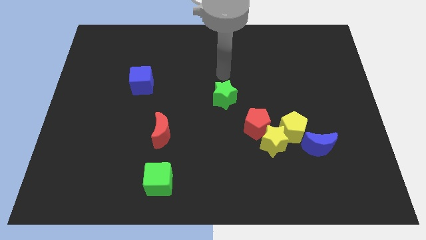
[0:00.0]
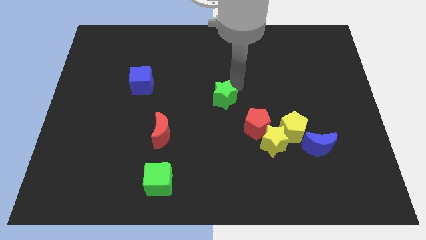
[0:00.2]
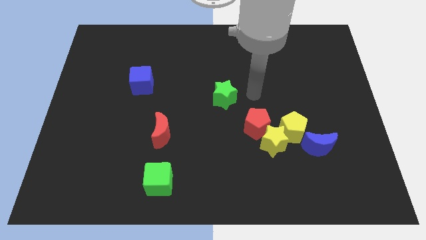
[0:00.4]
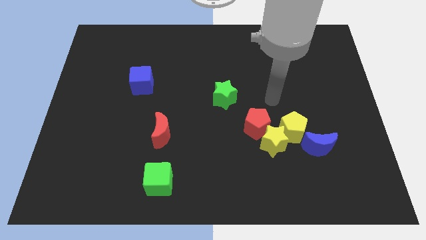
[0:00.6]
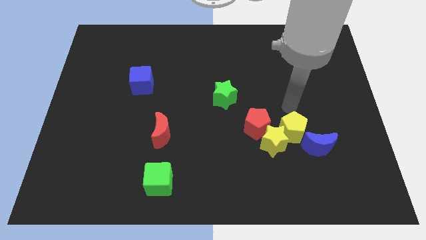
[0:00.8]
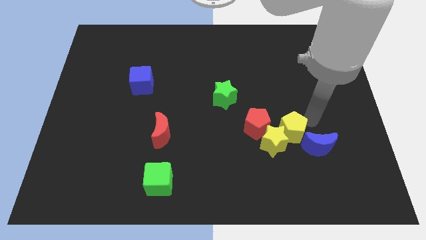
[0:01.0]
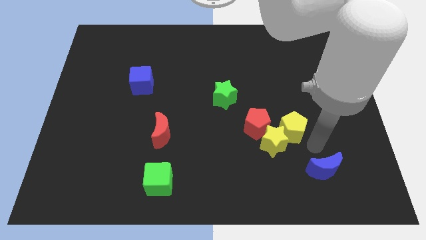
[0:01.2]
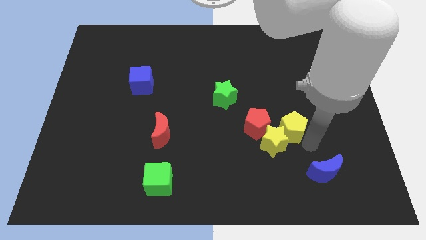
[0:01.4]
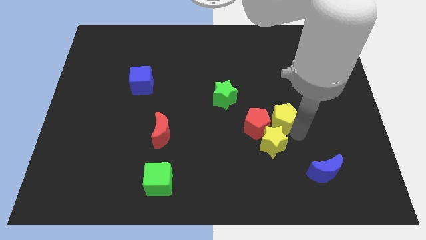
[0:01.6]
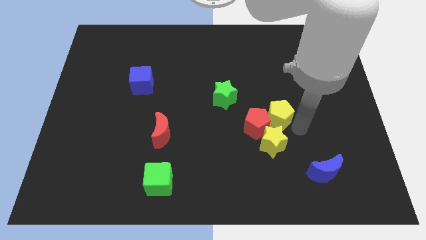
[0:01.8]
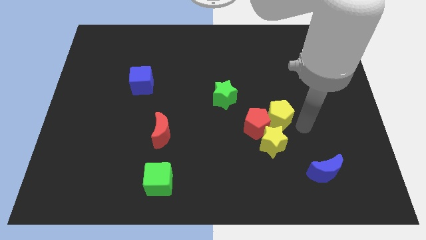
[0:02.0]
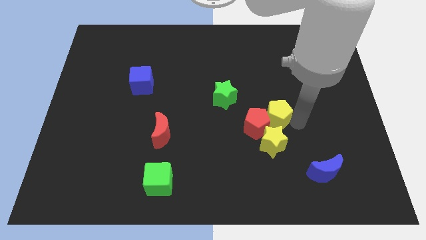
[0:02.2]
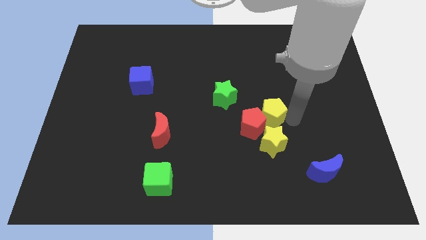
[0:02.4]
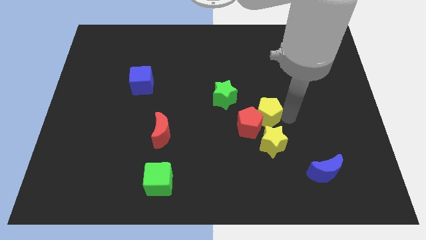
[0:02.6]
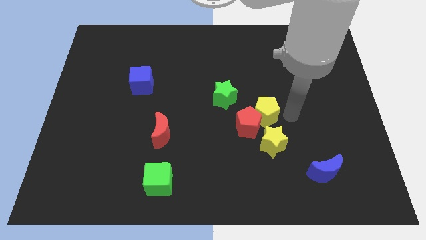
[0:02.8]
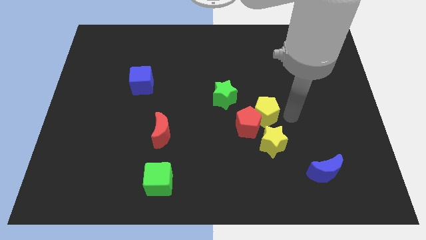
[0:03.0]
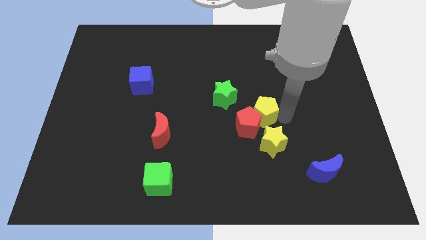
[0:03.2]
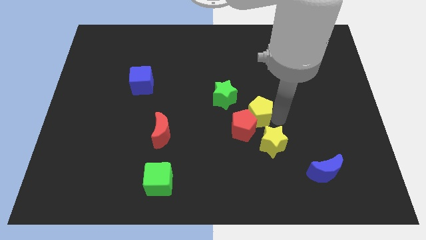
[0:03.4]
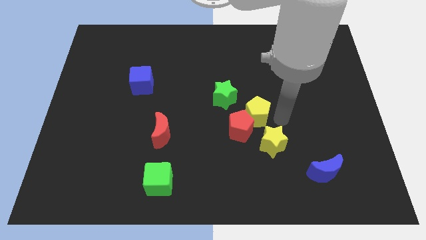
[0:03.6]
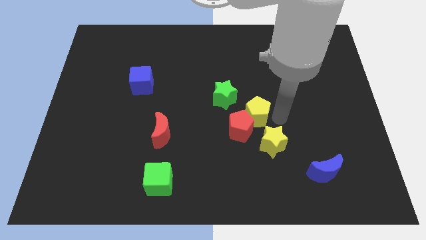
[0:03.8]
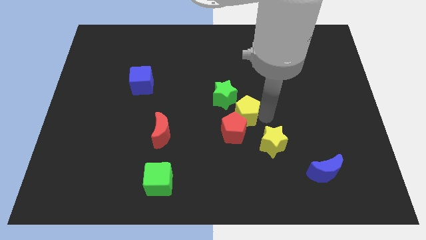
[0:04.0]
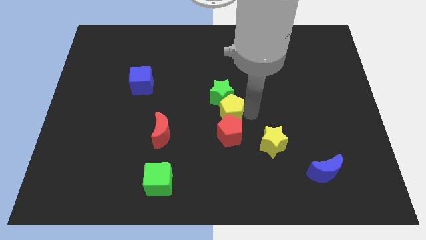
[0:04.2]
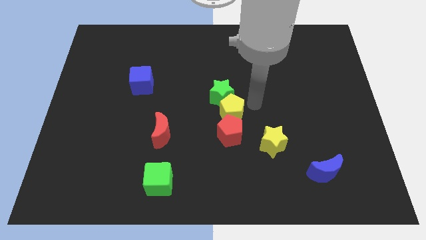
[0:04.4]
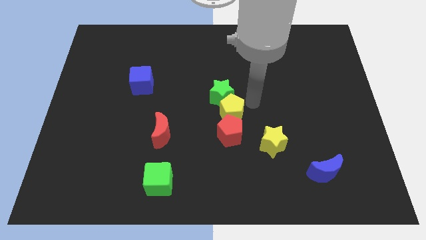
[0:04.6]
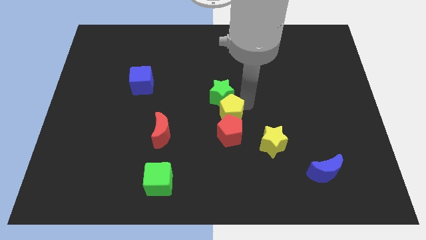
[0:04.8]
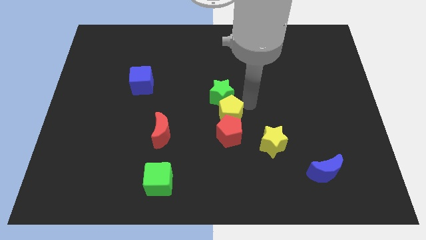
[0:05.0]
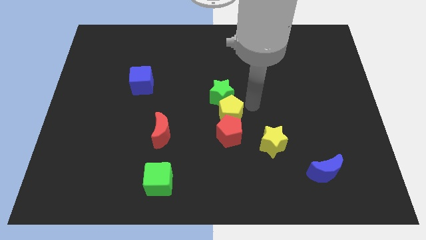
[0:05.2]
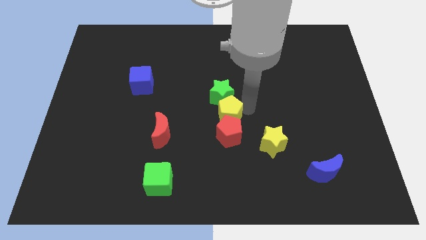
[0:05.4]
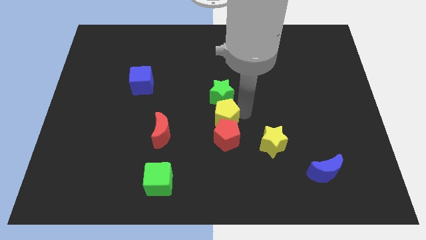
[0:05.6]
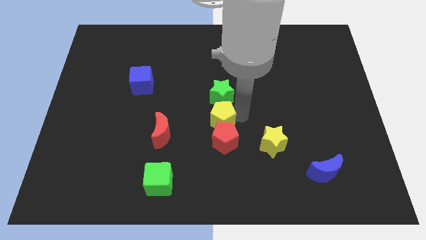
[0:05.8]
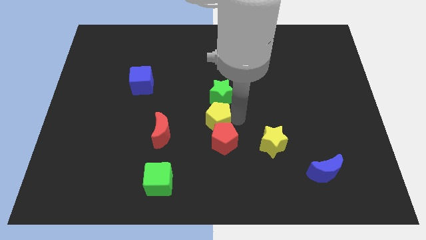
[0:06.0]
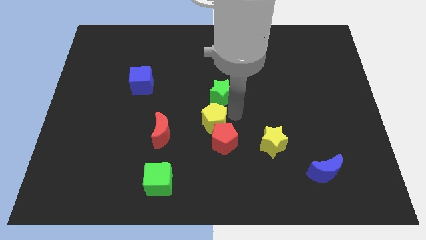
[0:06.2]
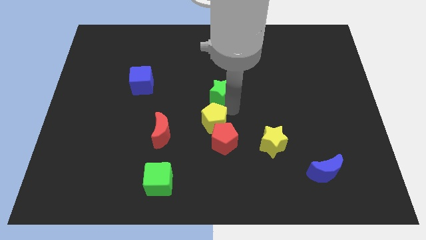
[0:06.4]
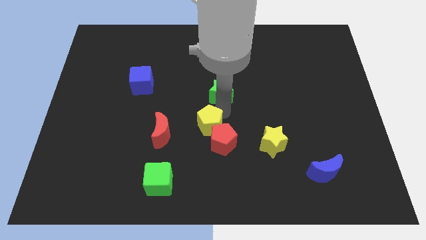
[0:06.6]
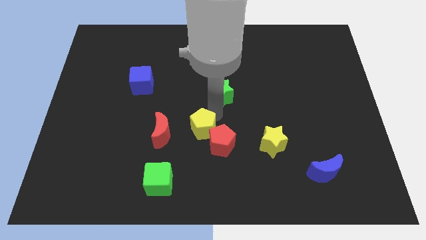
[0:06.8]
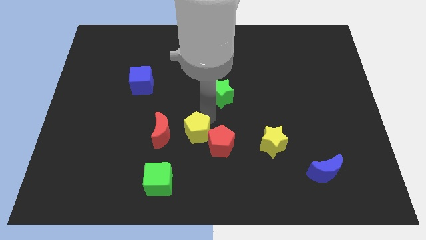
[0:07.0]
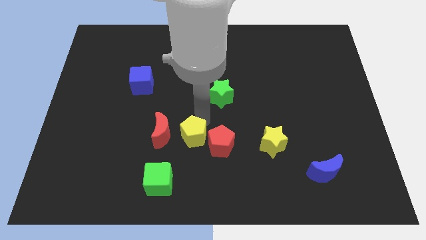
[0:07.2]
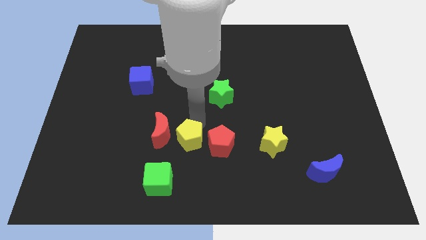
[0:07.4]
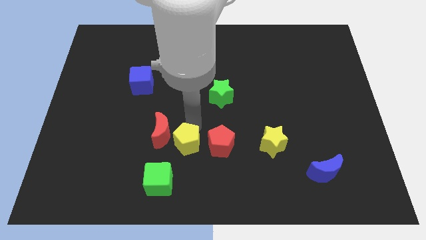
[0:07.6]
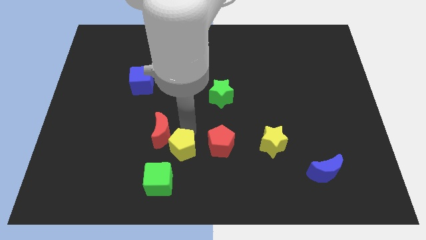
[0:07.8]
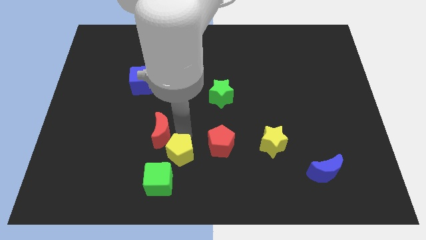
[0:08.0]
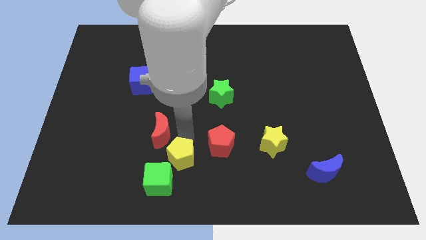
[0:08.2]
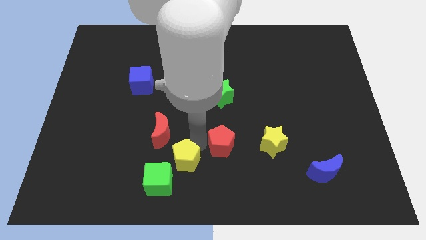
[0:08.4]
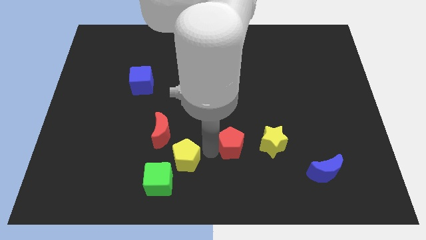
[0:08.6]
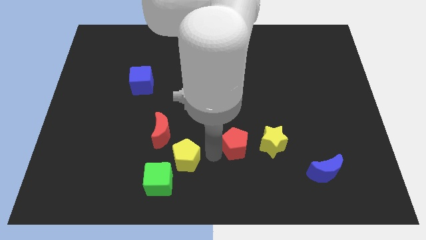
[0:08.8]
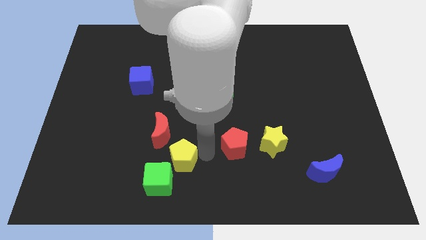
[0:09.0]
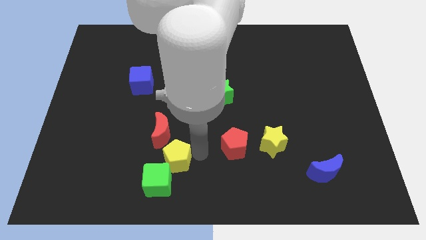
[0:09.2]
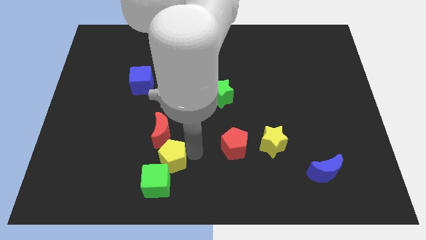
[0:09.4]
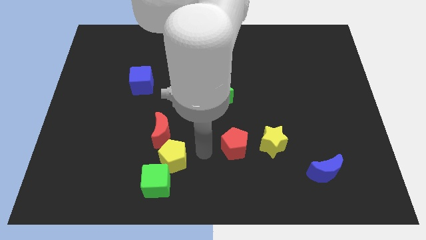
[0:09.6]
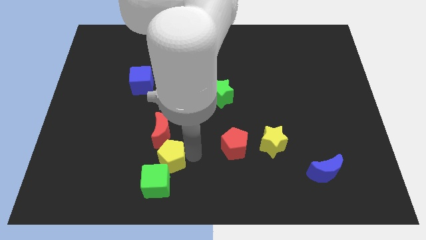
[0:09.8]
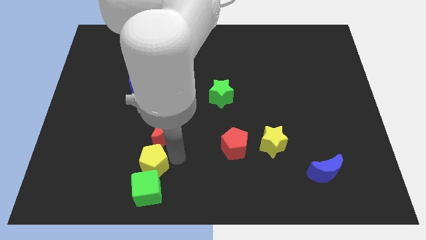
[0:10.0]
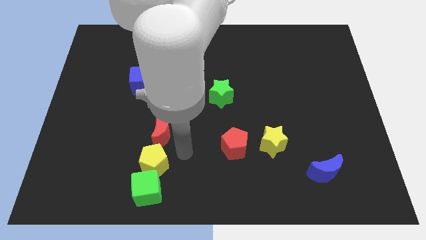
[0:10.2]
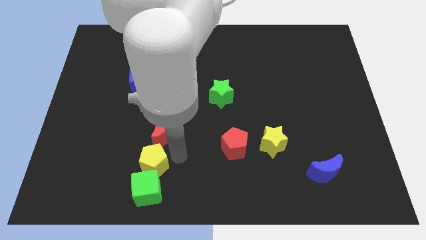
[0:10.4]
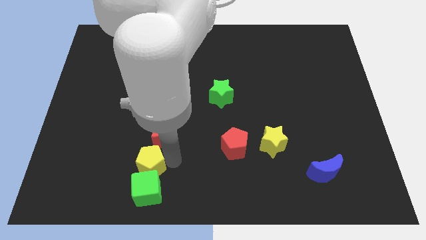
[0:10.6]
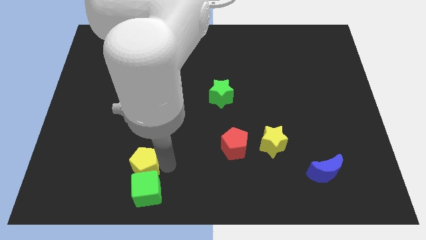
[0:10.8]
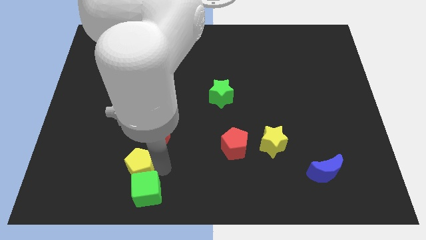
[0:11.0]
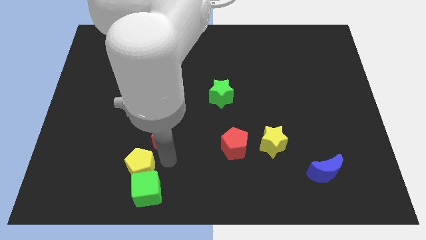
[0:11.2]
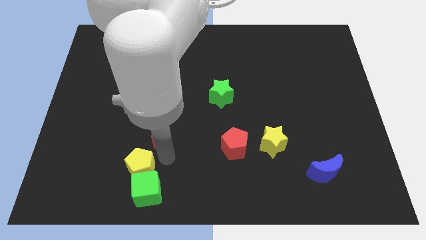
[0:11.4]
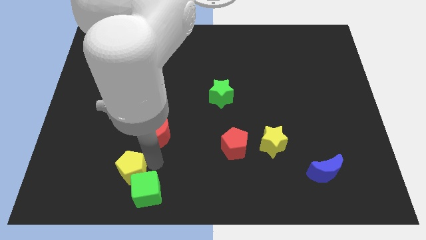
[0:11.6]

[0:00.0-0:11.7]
put the yellow pentagon to the left side of the green cube
